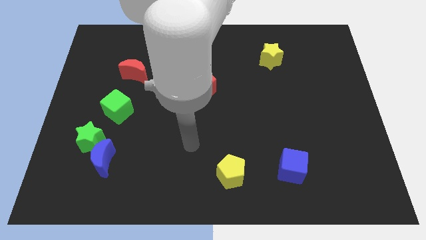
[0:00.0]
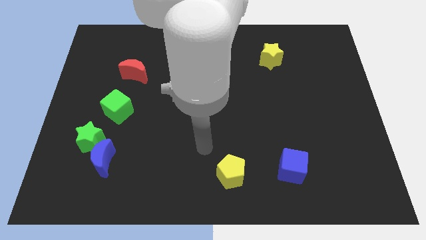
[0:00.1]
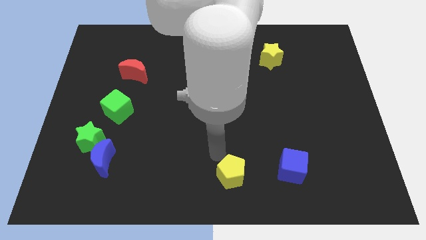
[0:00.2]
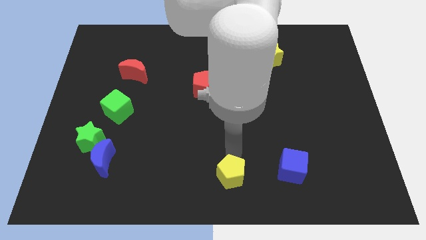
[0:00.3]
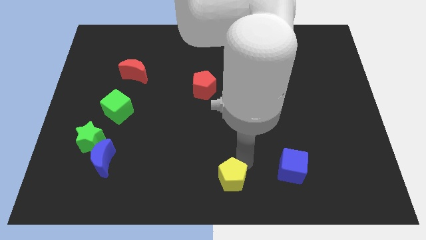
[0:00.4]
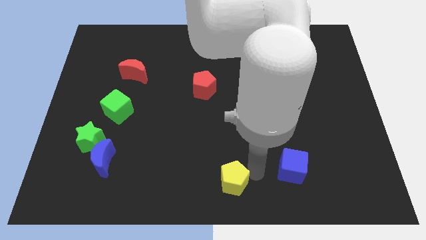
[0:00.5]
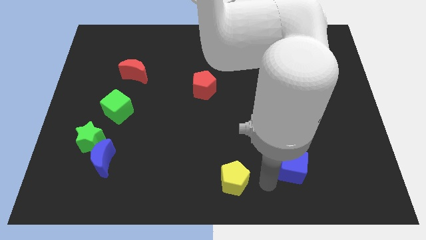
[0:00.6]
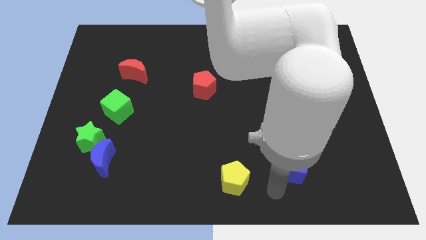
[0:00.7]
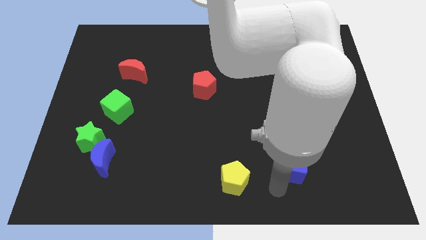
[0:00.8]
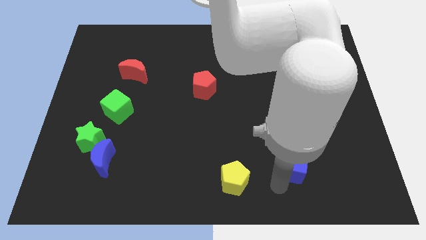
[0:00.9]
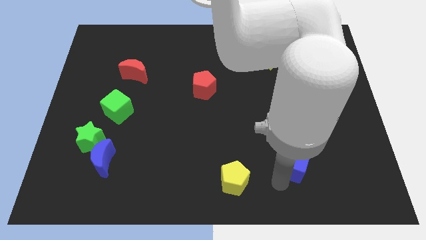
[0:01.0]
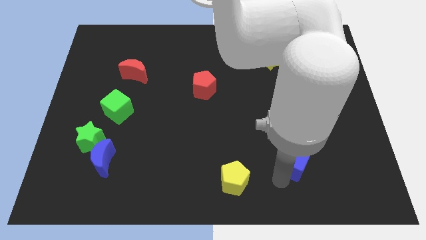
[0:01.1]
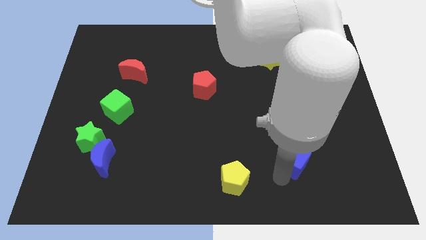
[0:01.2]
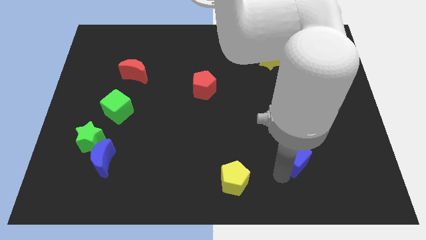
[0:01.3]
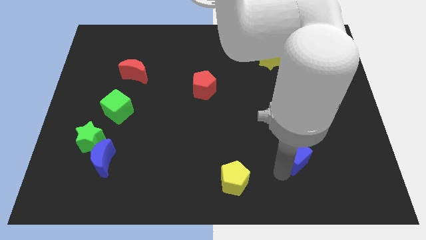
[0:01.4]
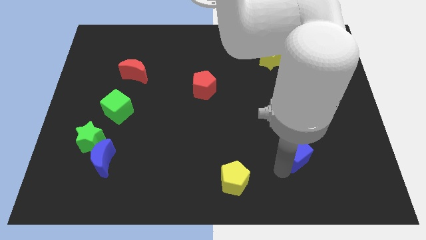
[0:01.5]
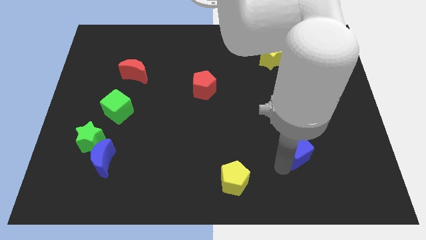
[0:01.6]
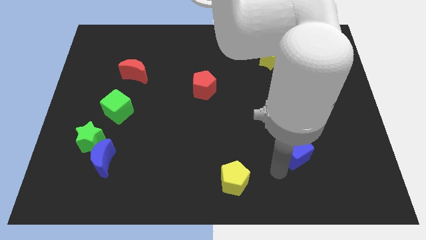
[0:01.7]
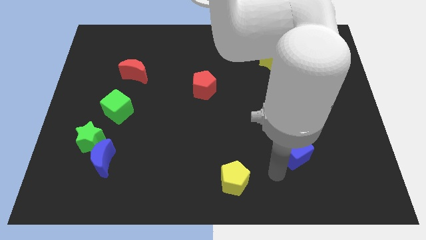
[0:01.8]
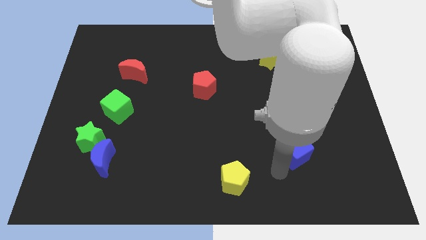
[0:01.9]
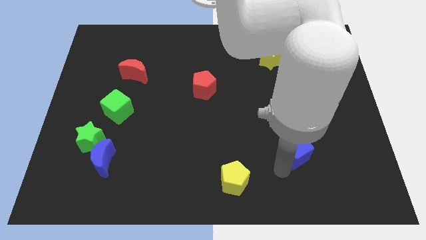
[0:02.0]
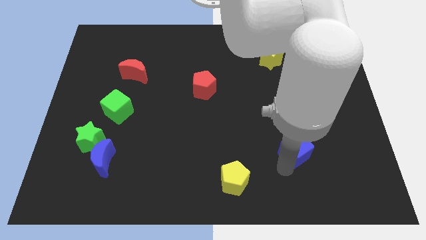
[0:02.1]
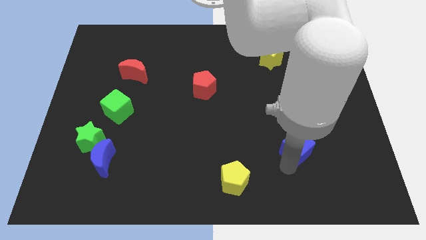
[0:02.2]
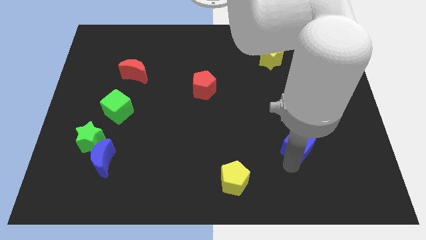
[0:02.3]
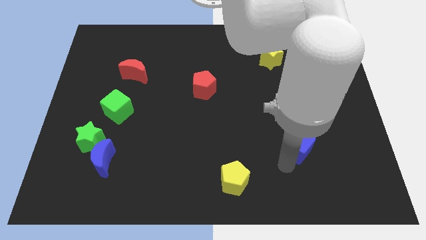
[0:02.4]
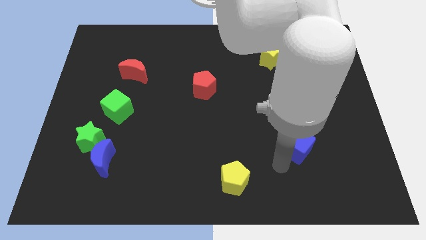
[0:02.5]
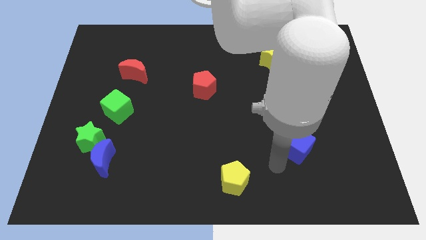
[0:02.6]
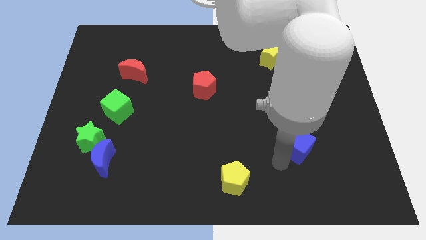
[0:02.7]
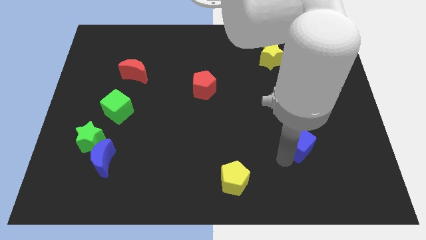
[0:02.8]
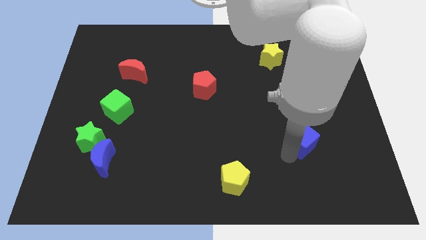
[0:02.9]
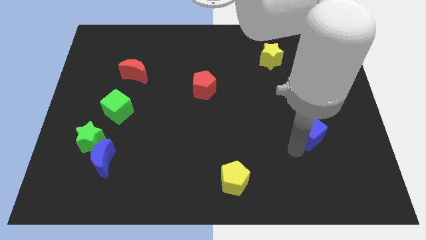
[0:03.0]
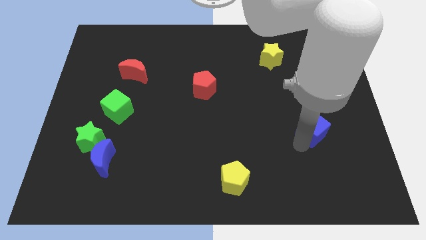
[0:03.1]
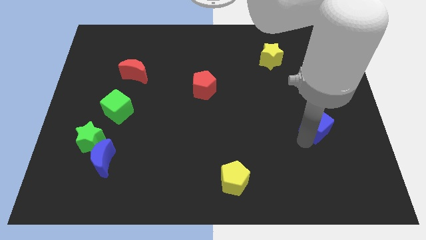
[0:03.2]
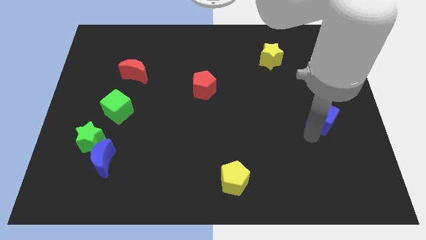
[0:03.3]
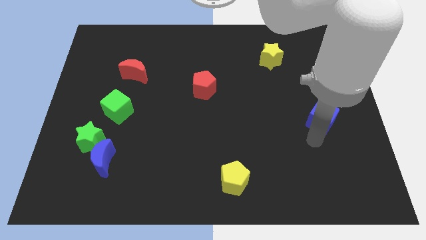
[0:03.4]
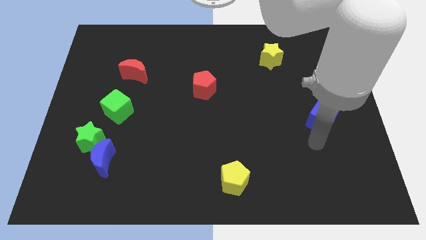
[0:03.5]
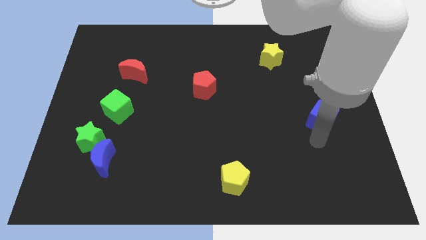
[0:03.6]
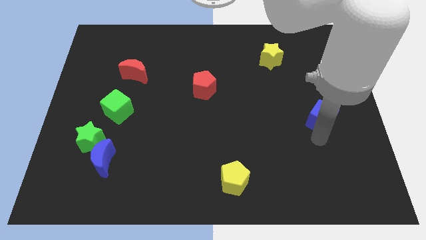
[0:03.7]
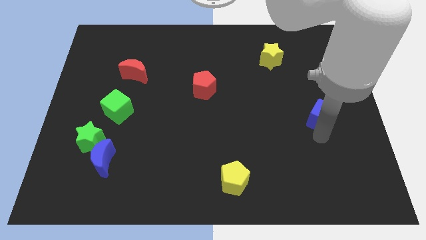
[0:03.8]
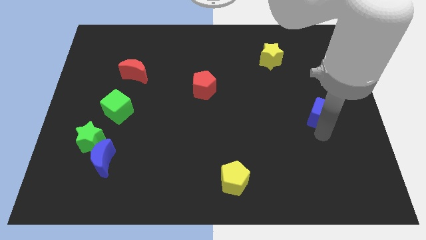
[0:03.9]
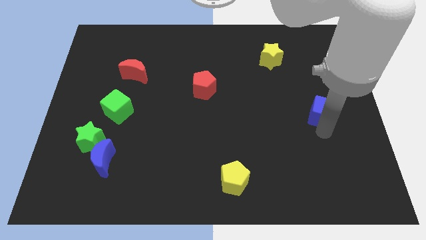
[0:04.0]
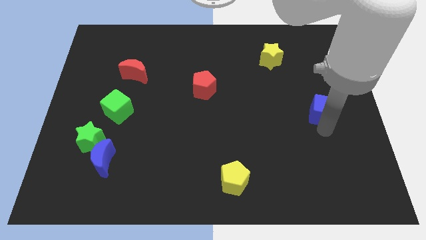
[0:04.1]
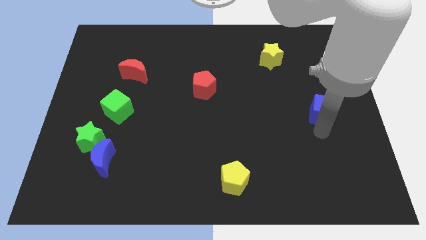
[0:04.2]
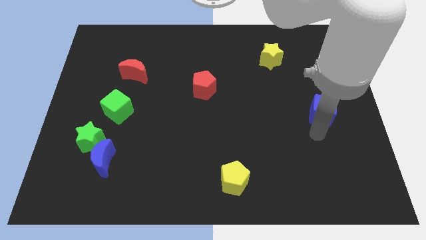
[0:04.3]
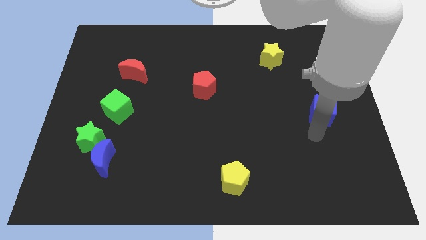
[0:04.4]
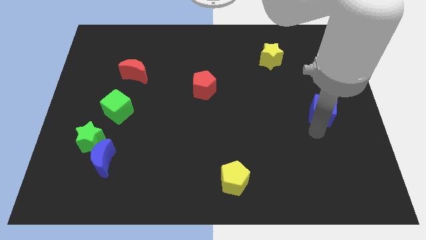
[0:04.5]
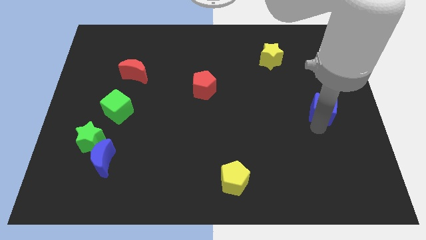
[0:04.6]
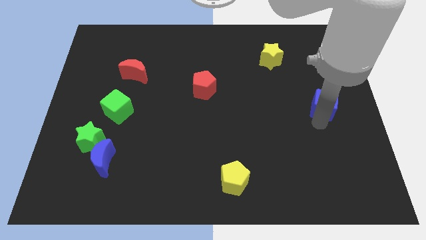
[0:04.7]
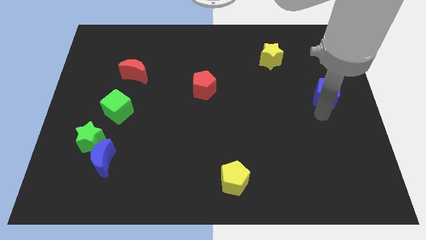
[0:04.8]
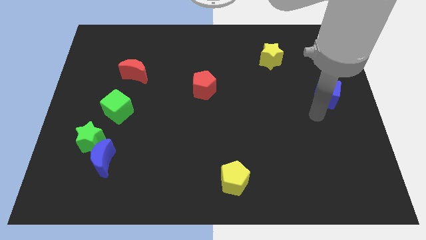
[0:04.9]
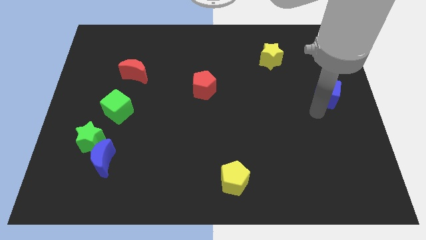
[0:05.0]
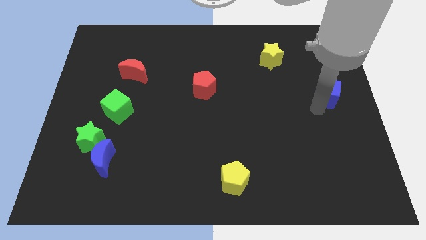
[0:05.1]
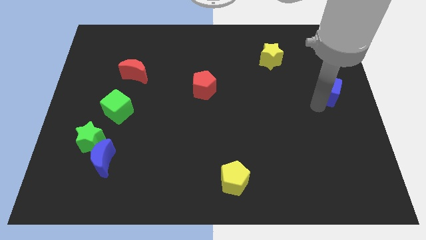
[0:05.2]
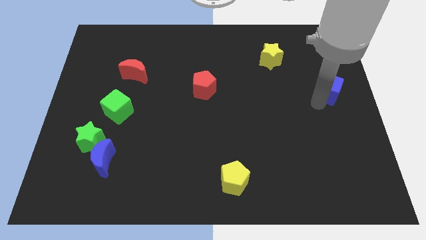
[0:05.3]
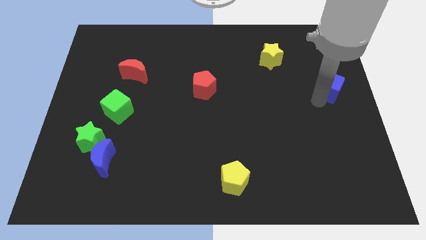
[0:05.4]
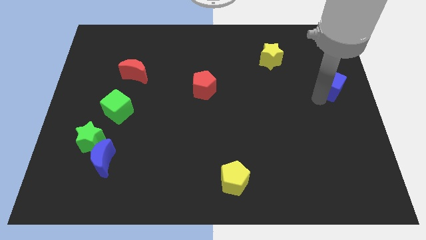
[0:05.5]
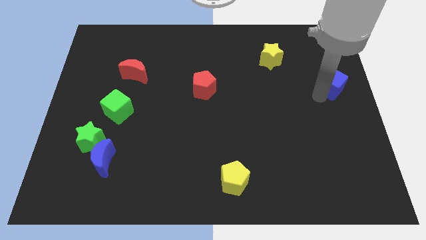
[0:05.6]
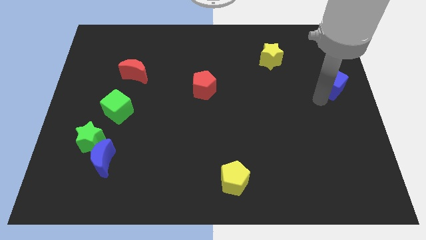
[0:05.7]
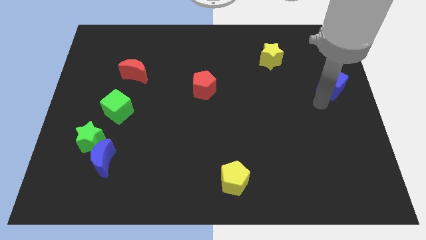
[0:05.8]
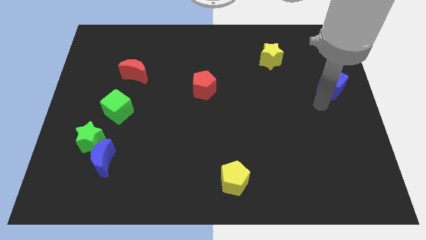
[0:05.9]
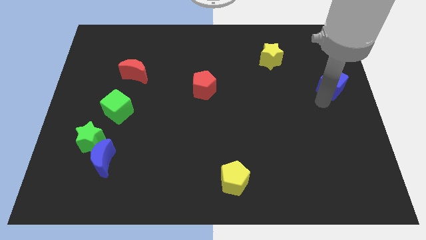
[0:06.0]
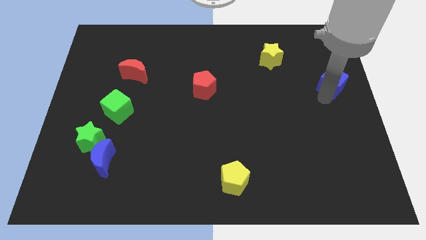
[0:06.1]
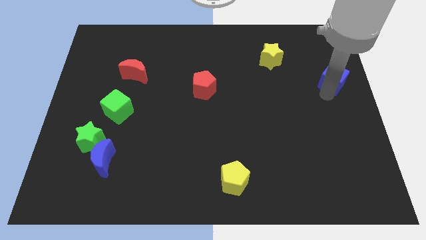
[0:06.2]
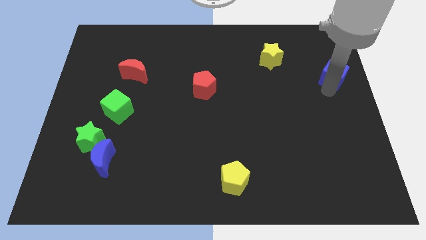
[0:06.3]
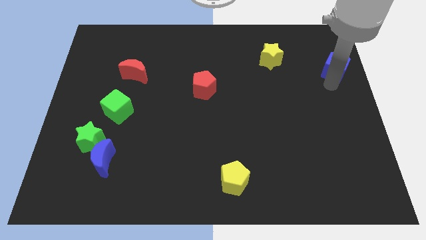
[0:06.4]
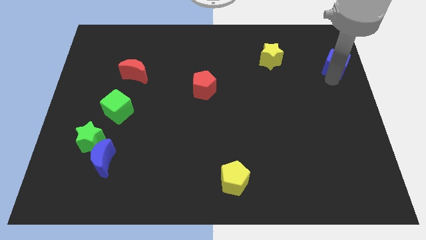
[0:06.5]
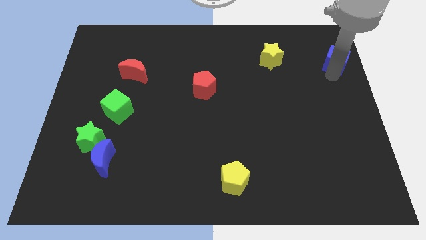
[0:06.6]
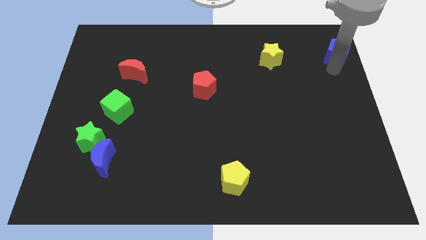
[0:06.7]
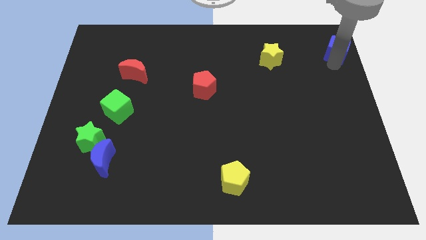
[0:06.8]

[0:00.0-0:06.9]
slide the blue cube to the top right of the board
